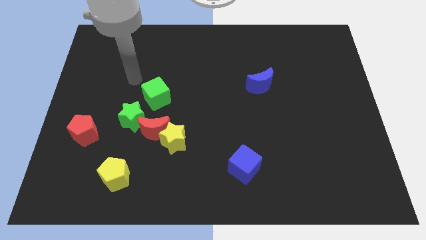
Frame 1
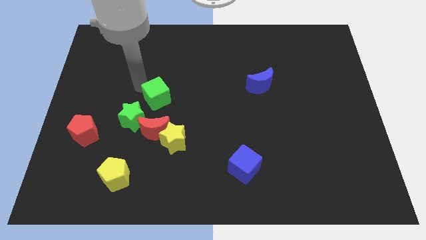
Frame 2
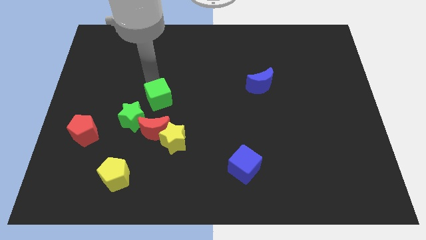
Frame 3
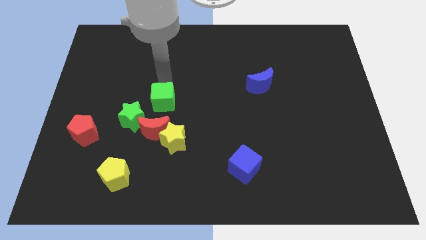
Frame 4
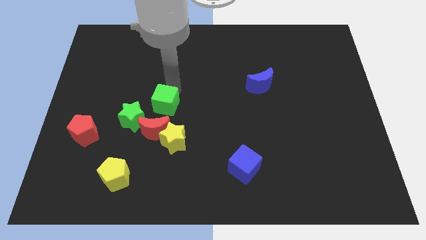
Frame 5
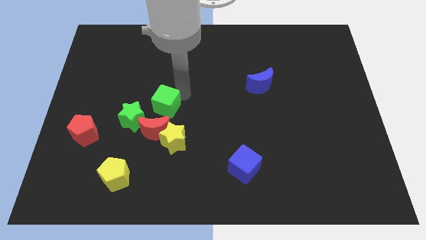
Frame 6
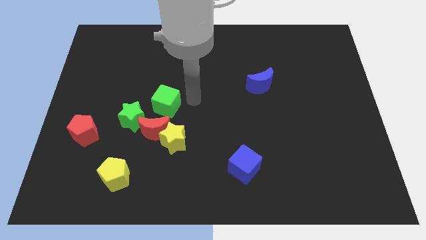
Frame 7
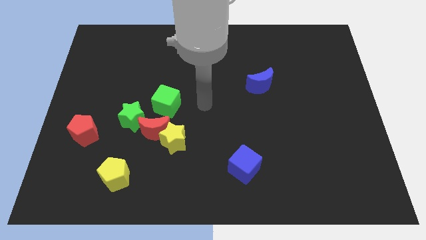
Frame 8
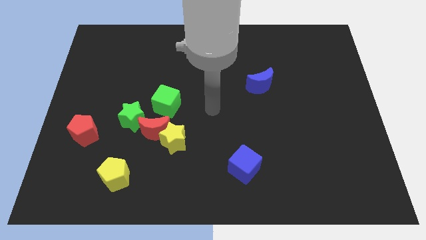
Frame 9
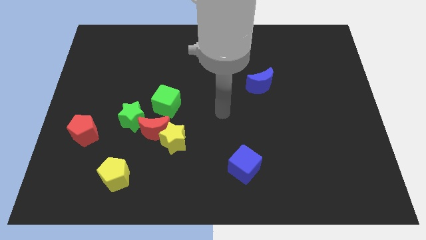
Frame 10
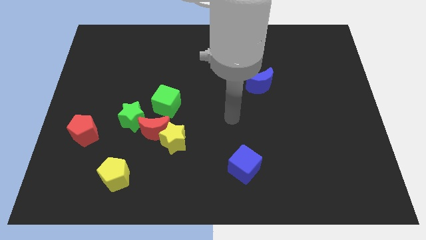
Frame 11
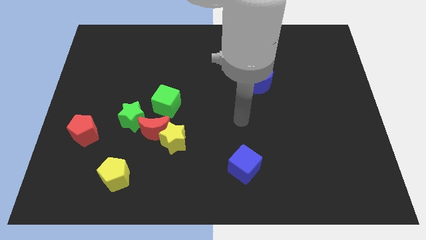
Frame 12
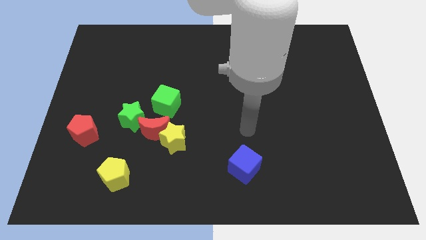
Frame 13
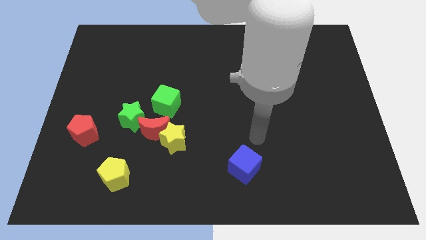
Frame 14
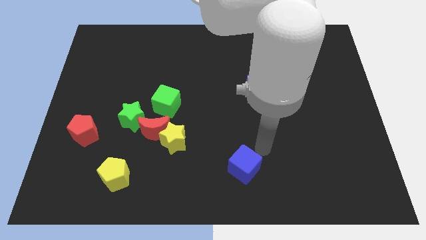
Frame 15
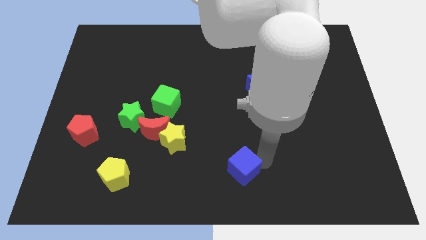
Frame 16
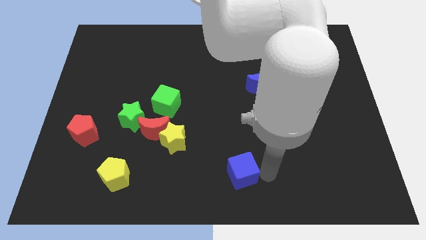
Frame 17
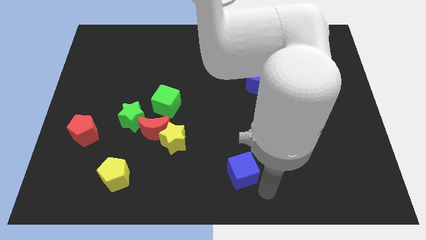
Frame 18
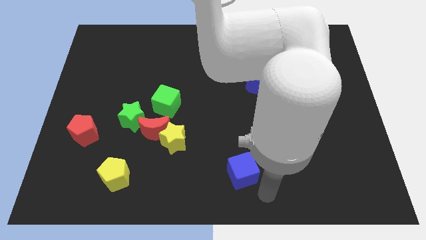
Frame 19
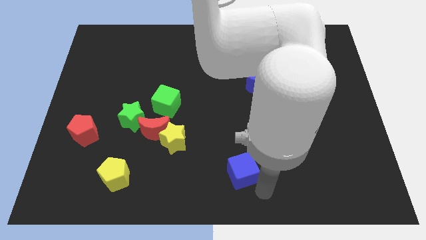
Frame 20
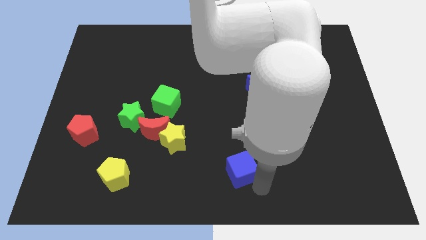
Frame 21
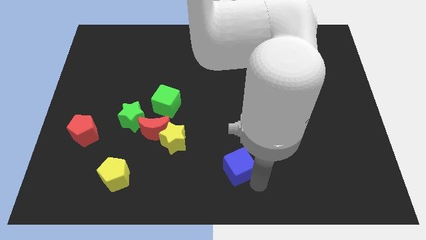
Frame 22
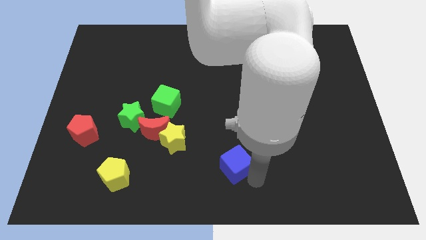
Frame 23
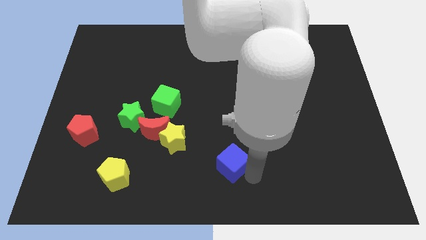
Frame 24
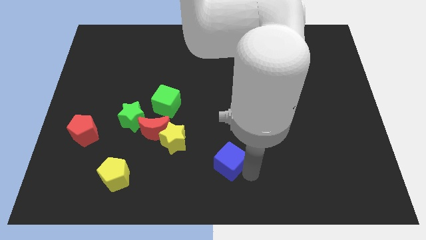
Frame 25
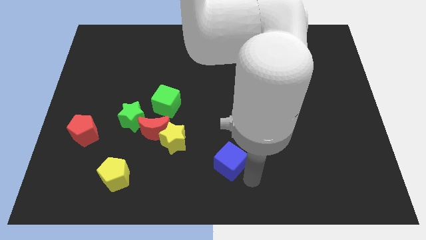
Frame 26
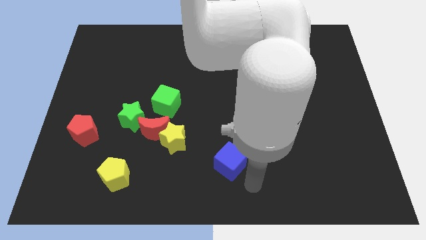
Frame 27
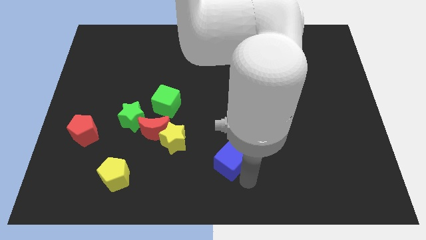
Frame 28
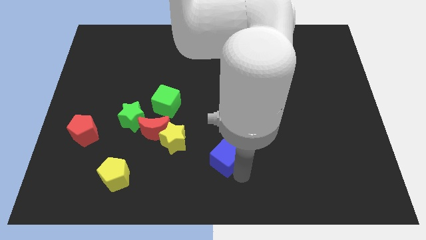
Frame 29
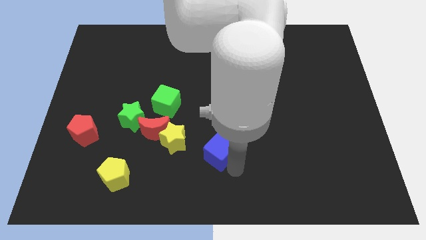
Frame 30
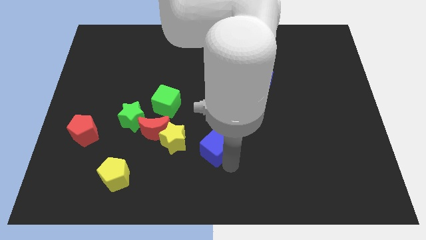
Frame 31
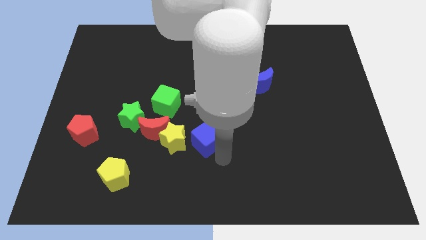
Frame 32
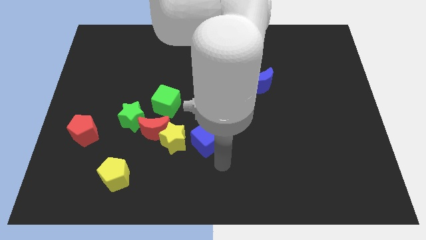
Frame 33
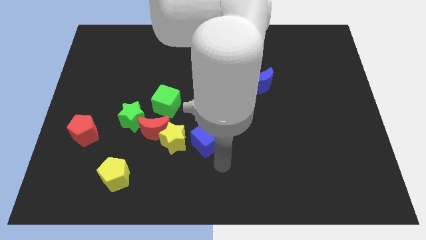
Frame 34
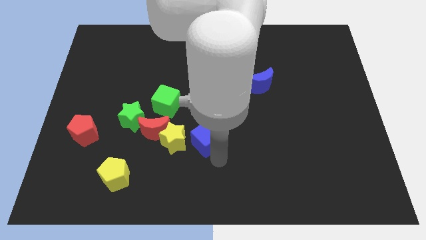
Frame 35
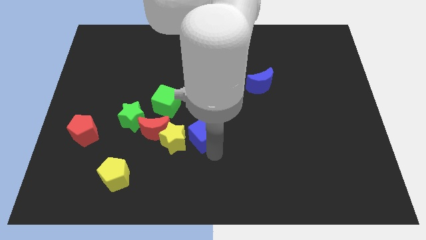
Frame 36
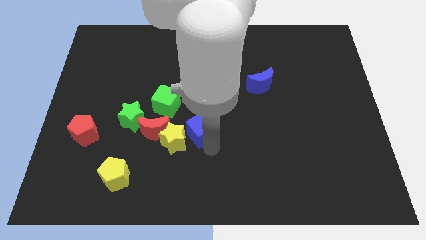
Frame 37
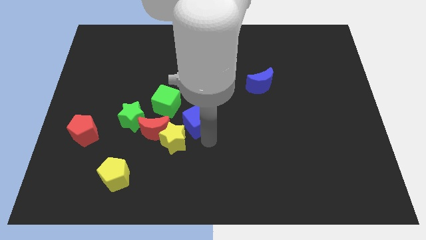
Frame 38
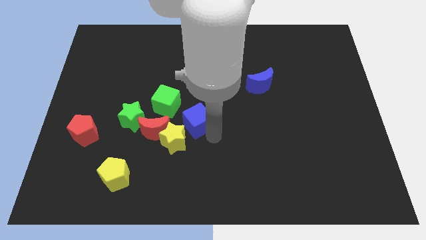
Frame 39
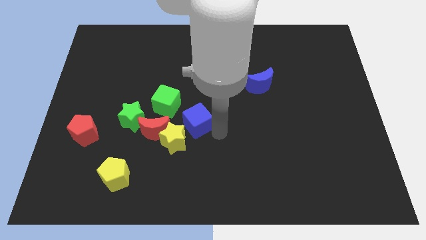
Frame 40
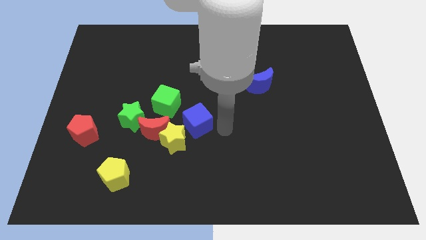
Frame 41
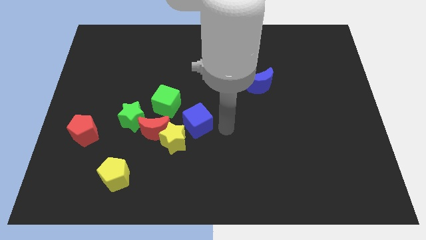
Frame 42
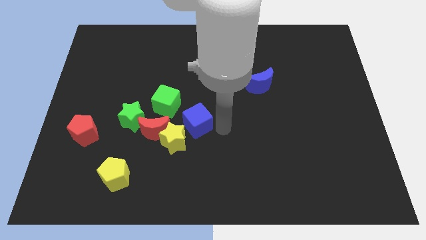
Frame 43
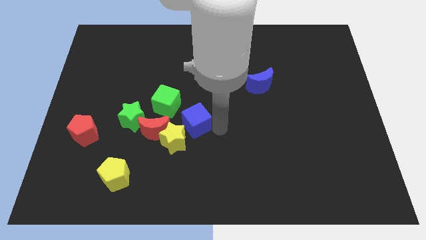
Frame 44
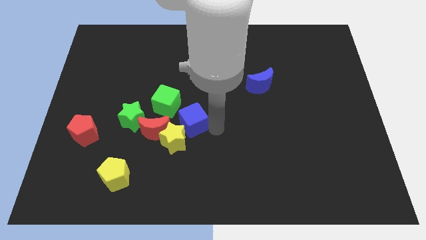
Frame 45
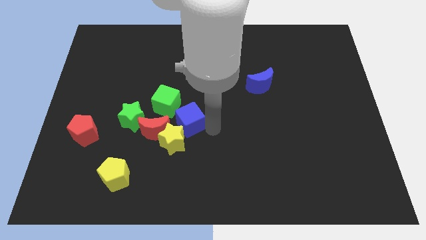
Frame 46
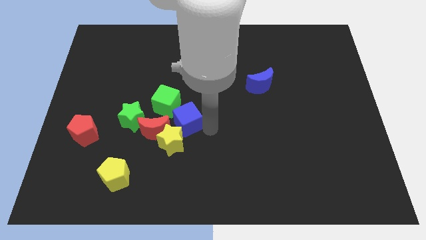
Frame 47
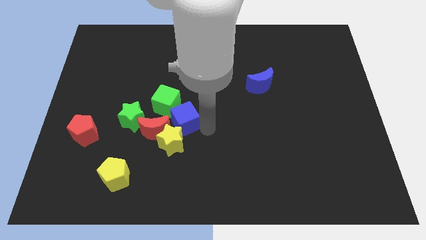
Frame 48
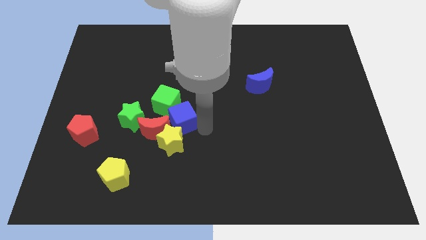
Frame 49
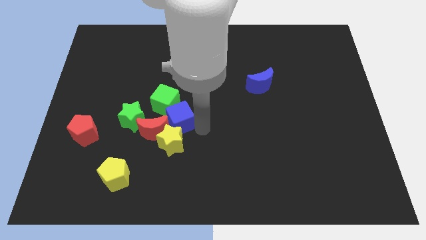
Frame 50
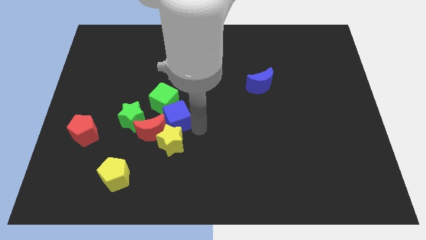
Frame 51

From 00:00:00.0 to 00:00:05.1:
slide the blue cube towards the red moon

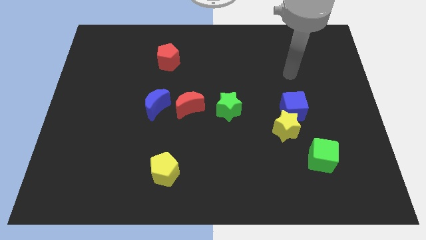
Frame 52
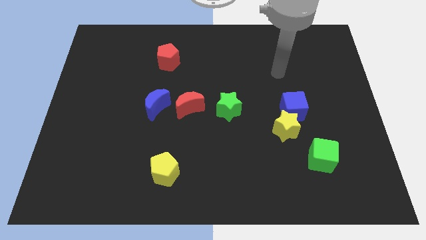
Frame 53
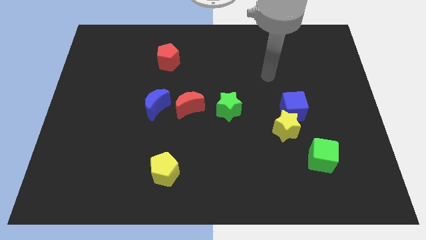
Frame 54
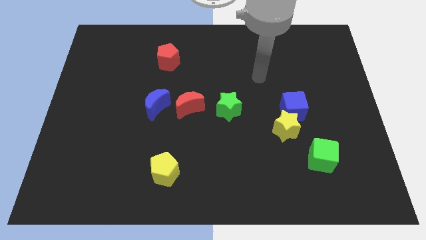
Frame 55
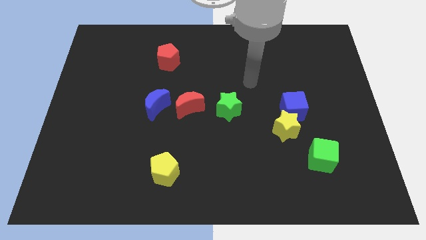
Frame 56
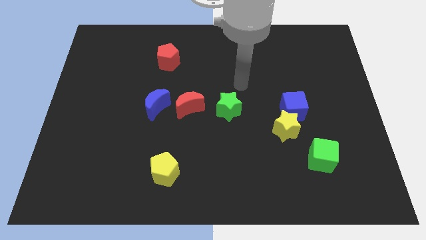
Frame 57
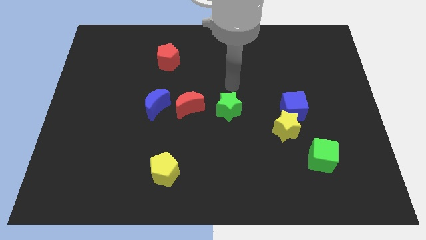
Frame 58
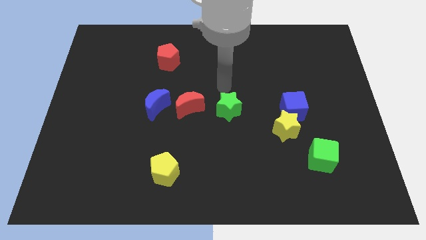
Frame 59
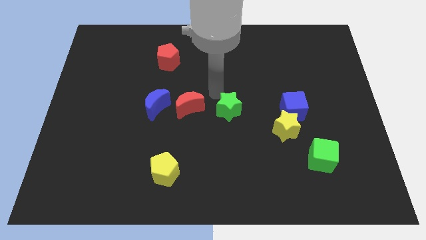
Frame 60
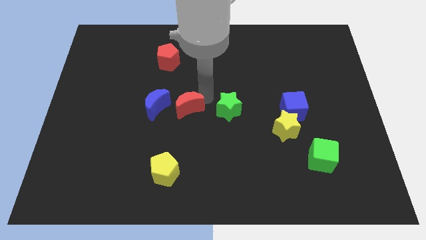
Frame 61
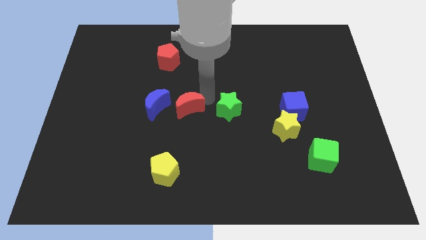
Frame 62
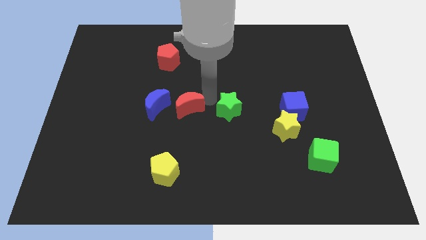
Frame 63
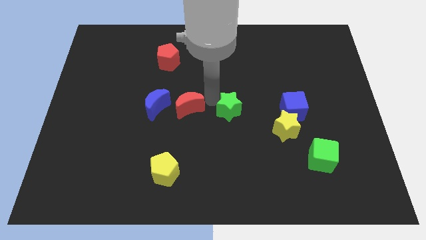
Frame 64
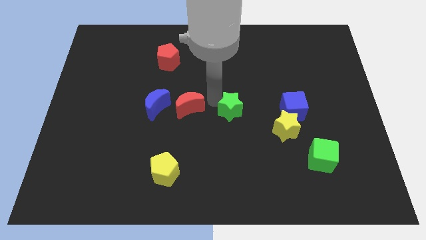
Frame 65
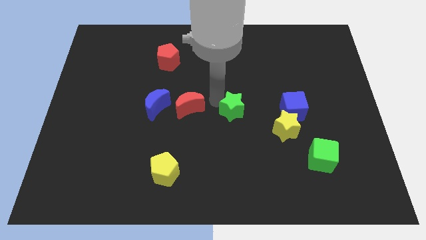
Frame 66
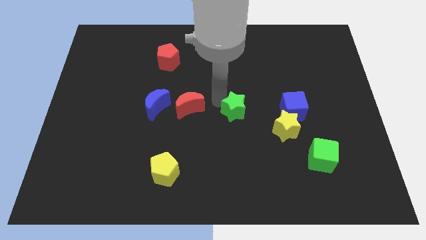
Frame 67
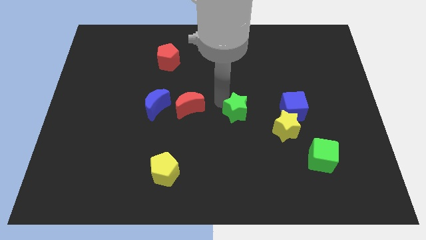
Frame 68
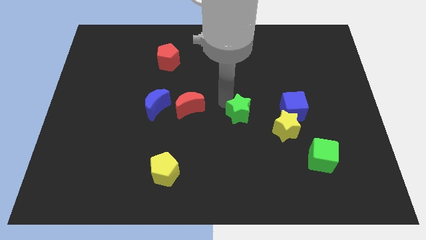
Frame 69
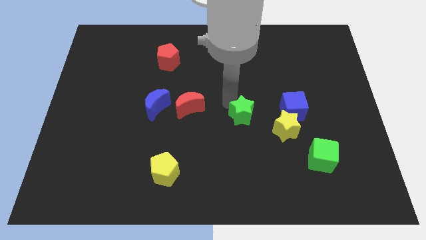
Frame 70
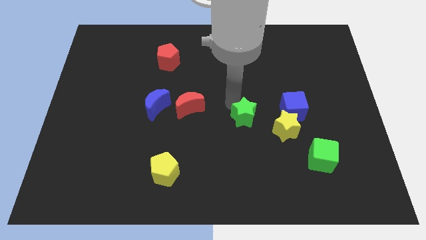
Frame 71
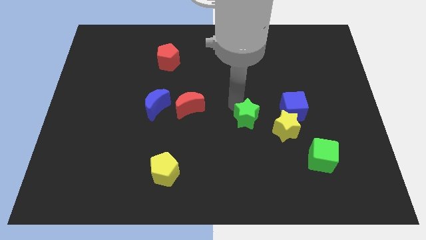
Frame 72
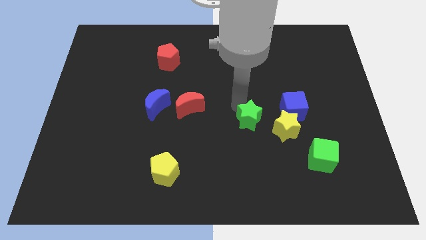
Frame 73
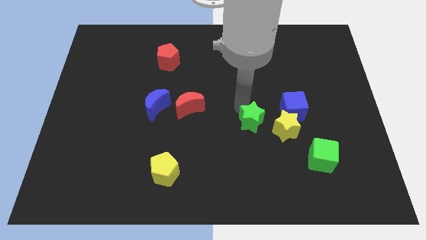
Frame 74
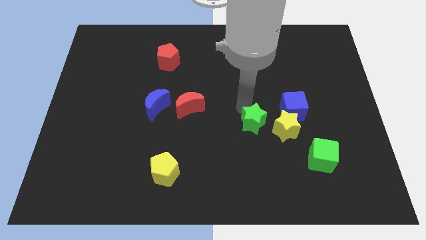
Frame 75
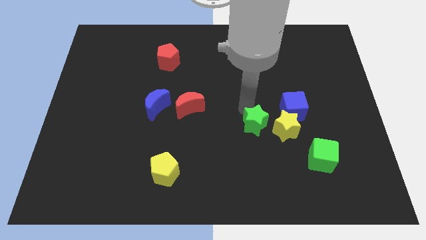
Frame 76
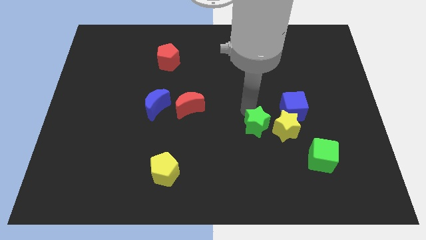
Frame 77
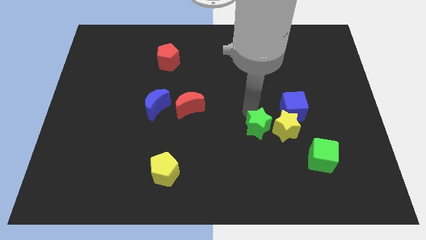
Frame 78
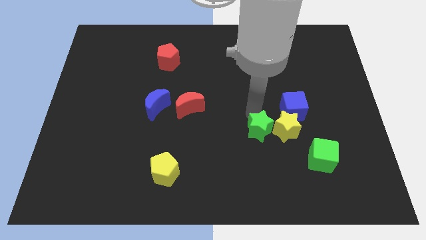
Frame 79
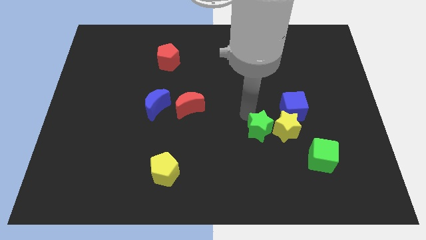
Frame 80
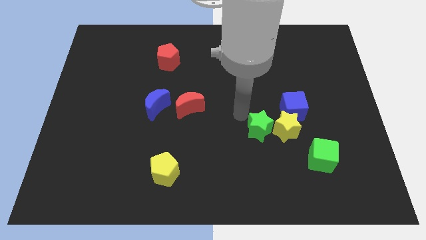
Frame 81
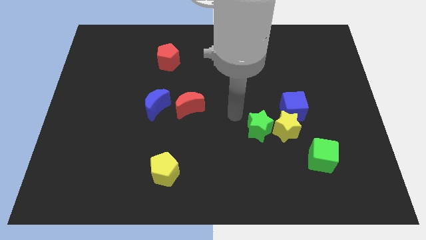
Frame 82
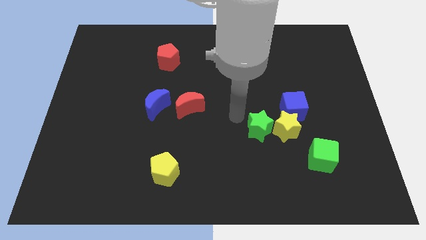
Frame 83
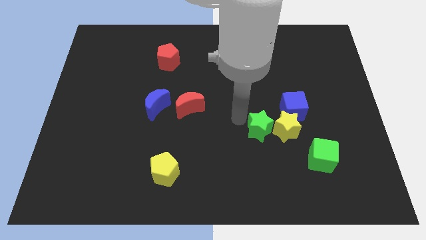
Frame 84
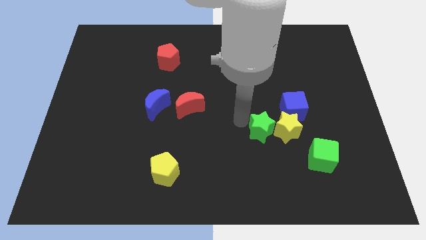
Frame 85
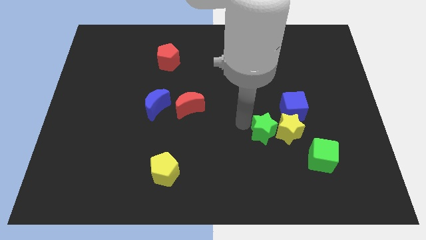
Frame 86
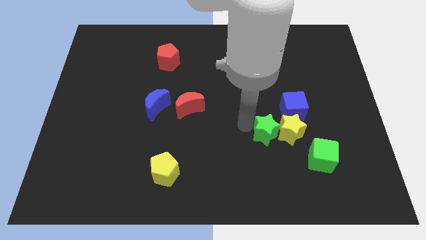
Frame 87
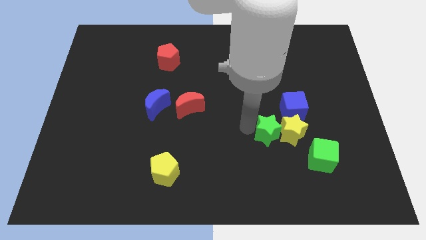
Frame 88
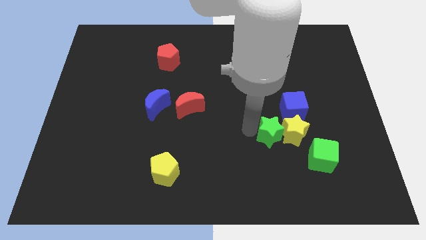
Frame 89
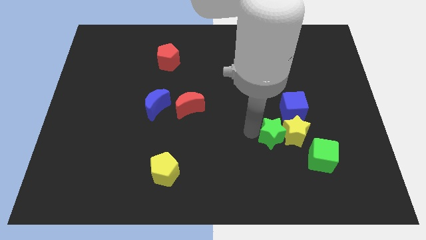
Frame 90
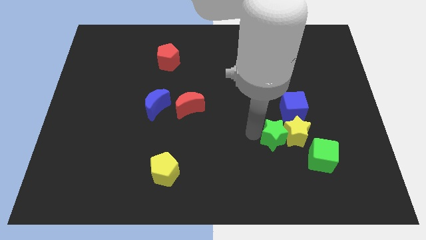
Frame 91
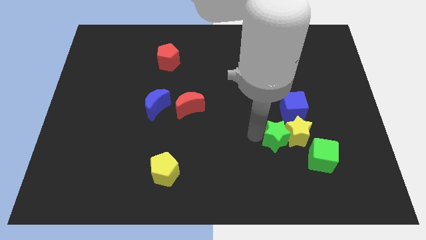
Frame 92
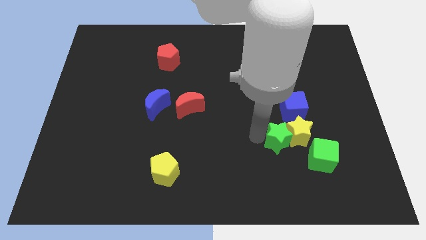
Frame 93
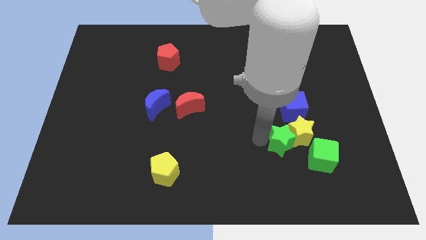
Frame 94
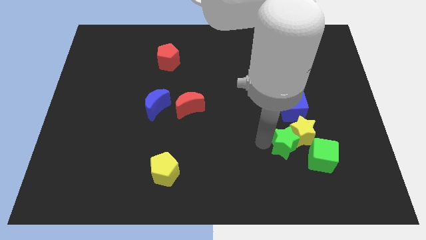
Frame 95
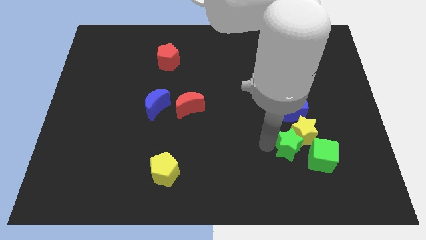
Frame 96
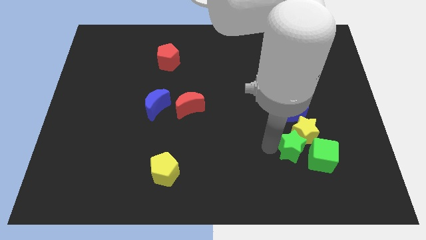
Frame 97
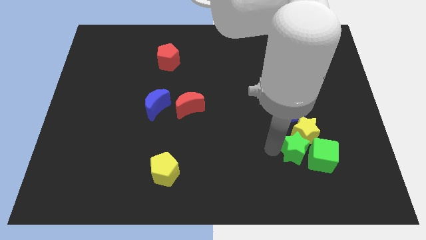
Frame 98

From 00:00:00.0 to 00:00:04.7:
slide the green star towards the green cube
